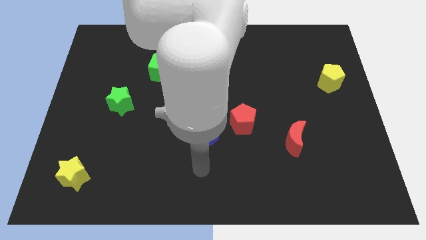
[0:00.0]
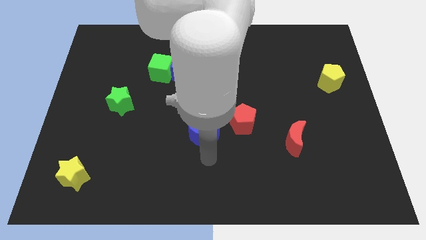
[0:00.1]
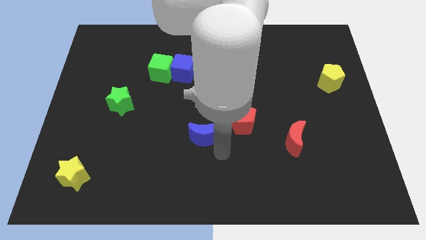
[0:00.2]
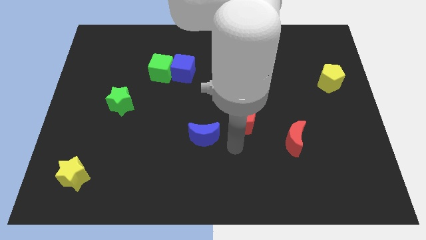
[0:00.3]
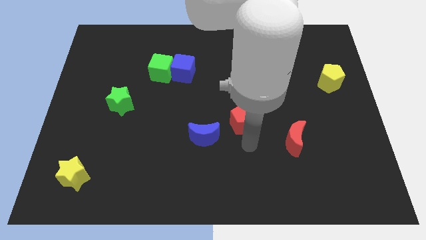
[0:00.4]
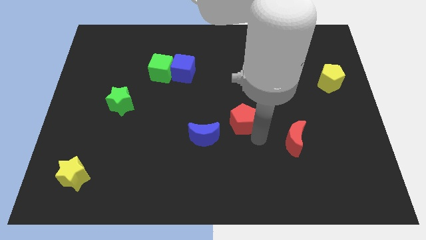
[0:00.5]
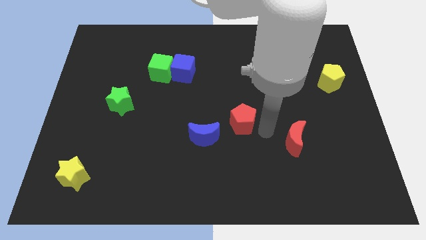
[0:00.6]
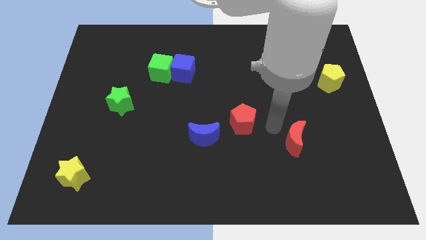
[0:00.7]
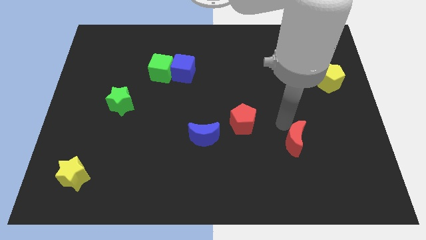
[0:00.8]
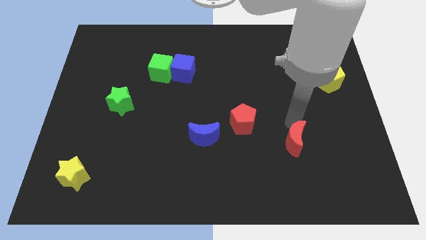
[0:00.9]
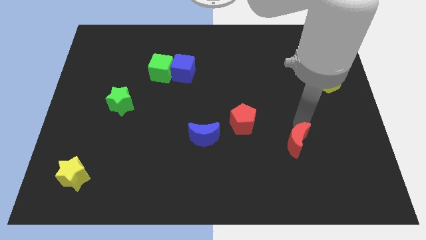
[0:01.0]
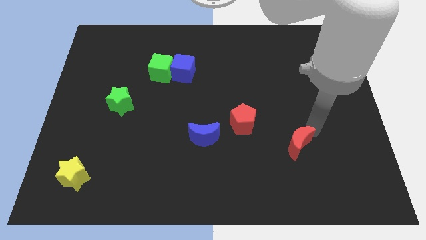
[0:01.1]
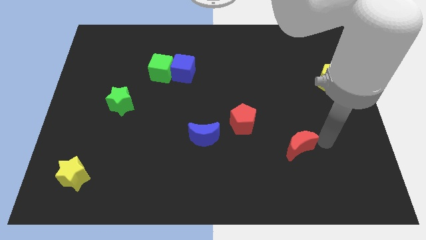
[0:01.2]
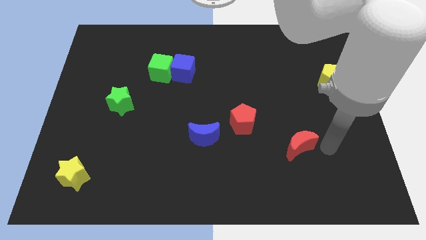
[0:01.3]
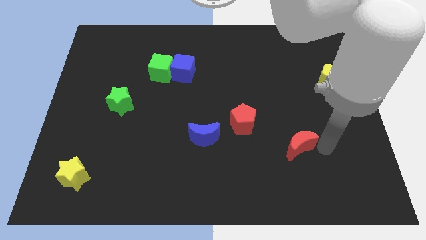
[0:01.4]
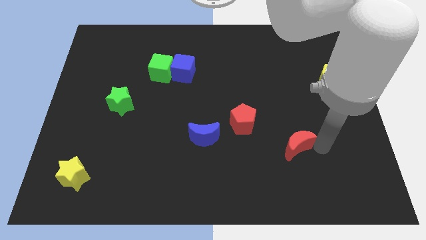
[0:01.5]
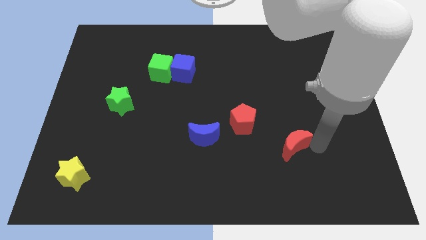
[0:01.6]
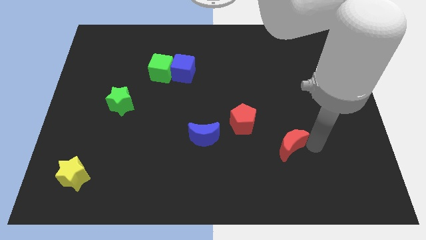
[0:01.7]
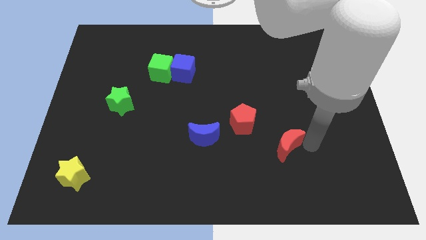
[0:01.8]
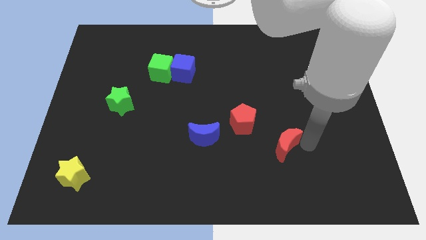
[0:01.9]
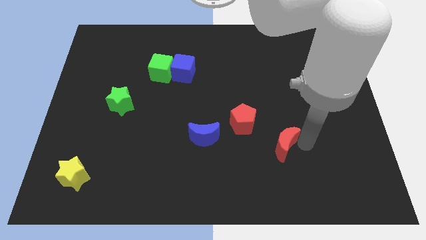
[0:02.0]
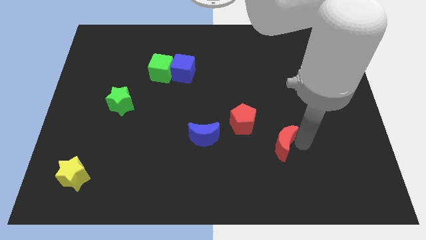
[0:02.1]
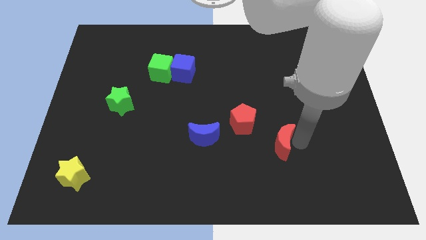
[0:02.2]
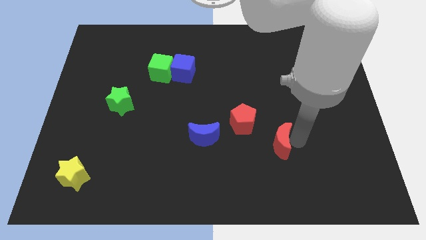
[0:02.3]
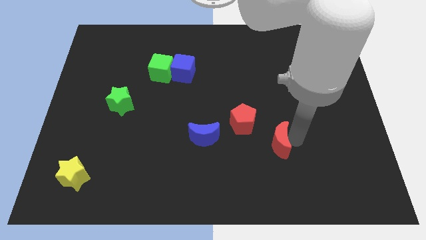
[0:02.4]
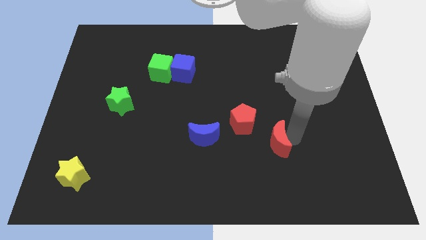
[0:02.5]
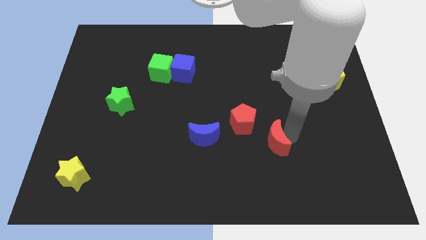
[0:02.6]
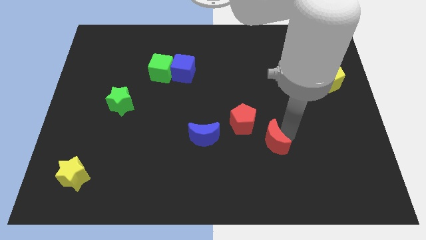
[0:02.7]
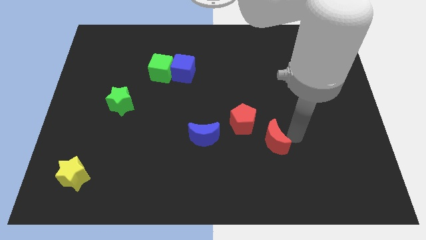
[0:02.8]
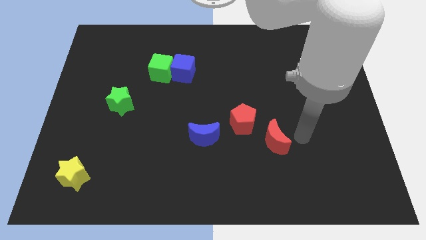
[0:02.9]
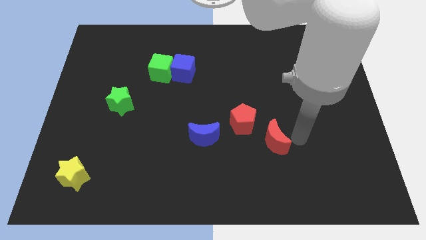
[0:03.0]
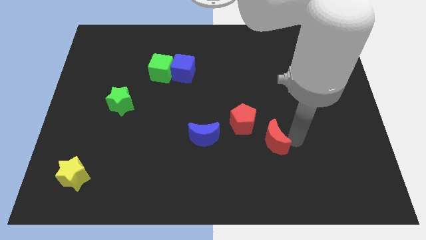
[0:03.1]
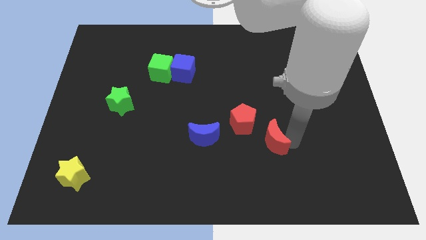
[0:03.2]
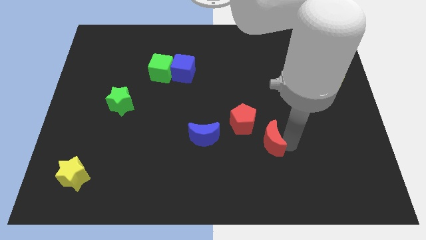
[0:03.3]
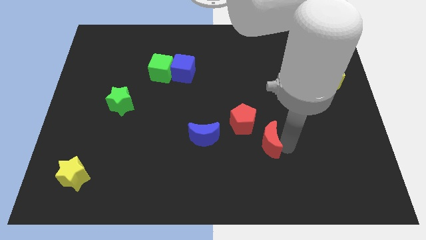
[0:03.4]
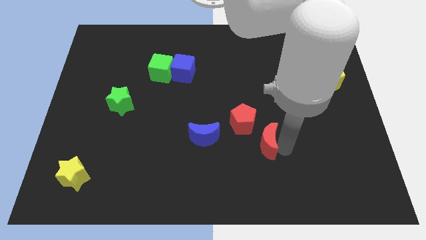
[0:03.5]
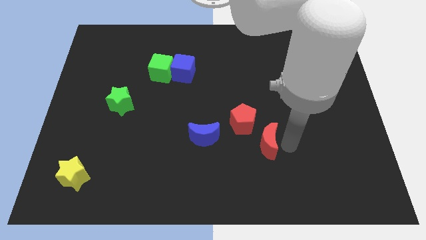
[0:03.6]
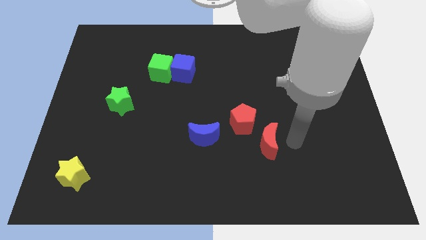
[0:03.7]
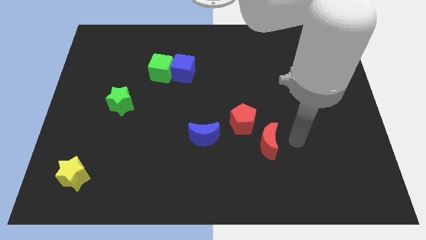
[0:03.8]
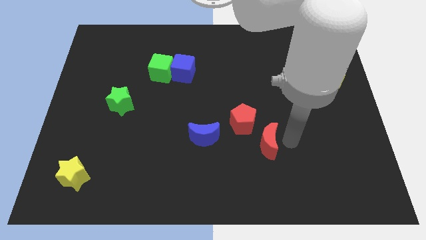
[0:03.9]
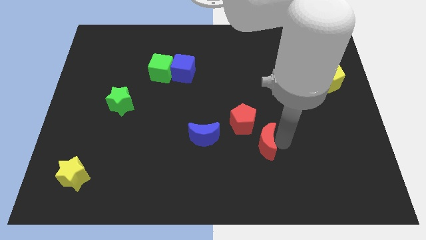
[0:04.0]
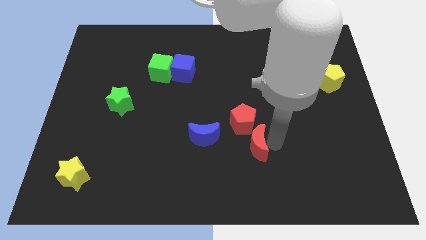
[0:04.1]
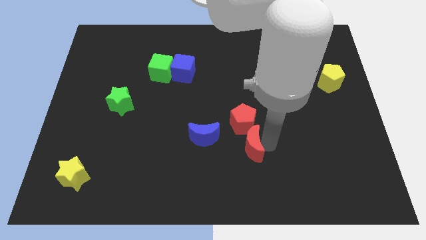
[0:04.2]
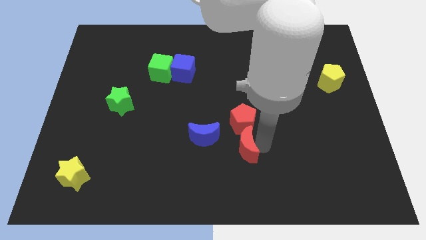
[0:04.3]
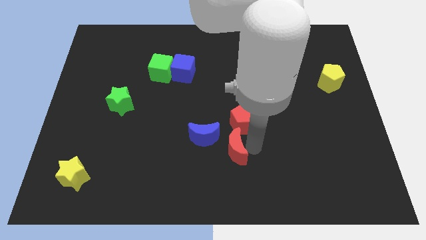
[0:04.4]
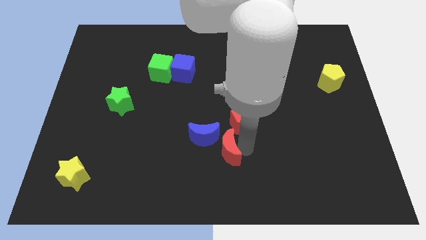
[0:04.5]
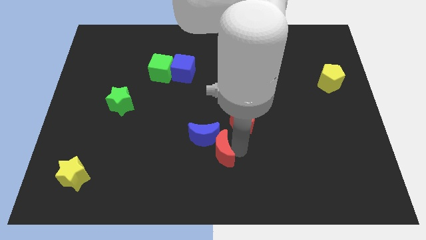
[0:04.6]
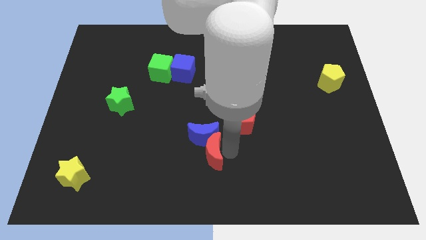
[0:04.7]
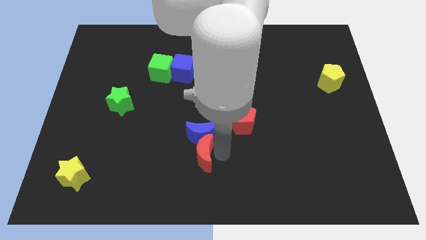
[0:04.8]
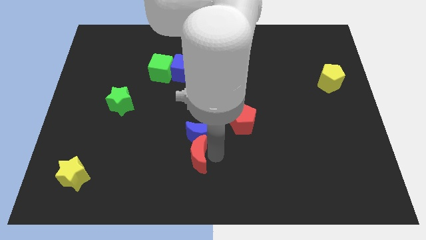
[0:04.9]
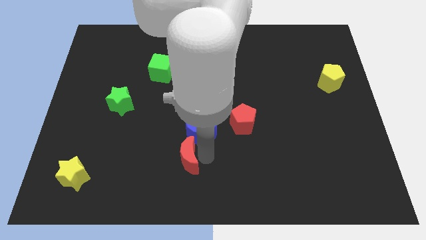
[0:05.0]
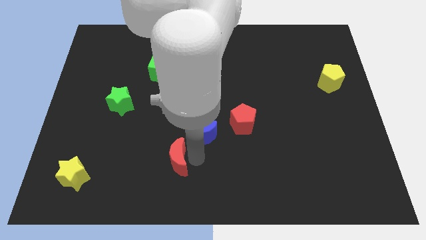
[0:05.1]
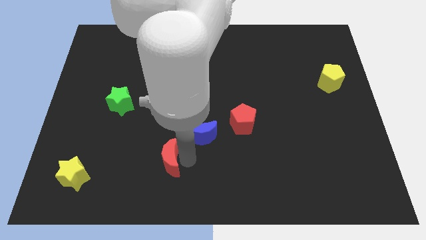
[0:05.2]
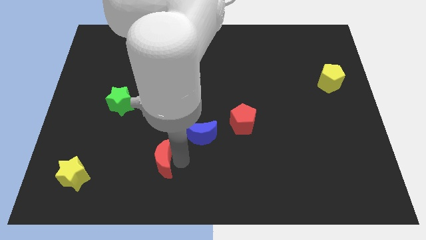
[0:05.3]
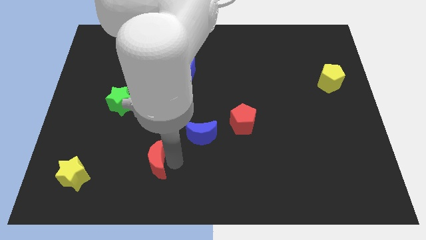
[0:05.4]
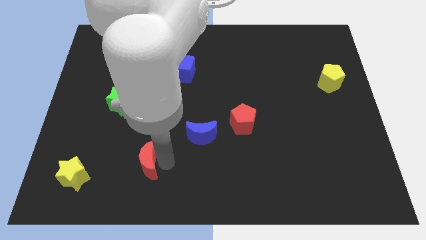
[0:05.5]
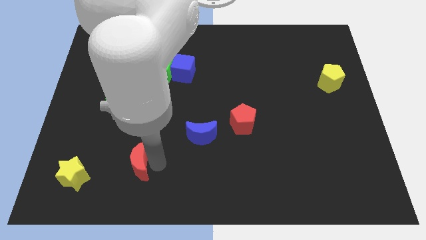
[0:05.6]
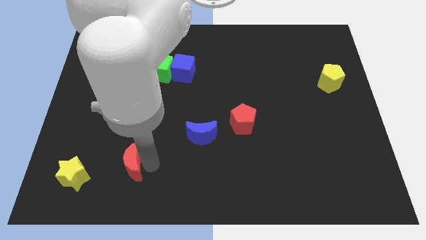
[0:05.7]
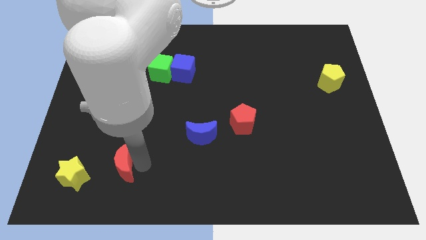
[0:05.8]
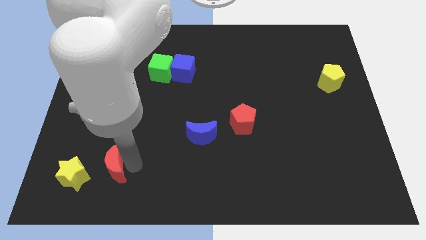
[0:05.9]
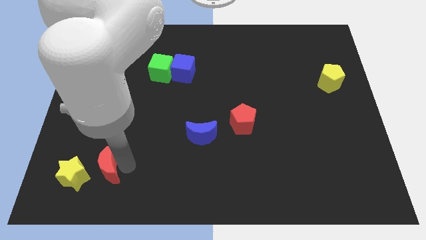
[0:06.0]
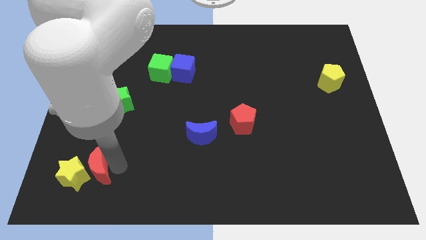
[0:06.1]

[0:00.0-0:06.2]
push the red moon next to the yellow star

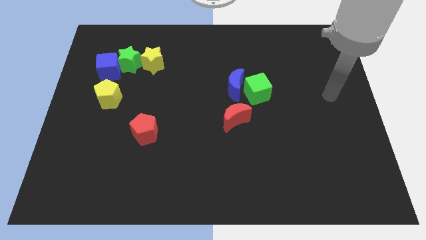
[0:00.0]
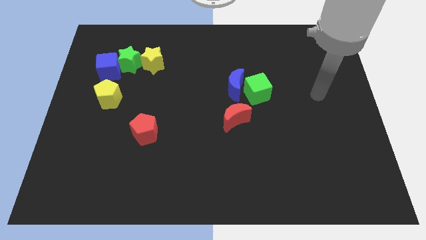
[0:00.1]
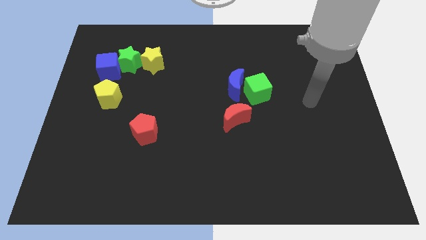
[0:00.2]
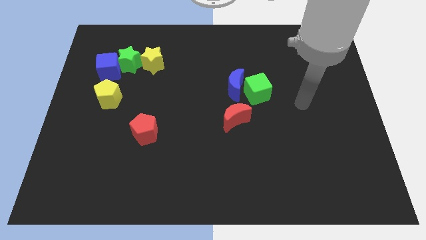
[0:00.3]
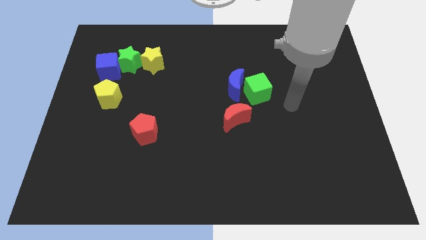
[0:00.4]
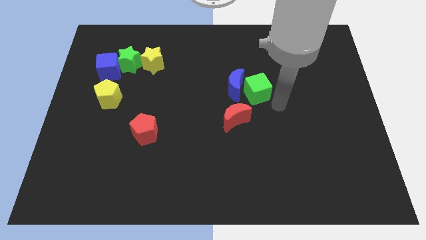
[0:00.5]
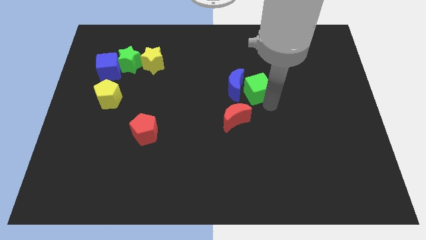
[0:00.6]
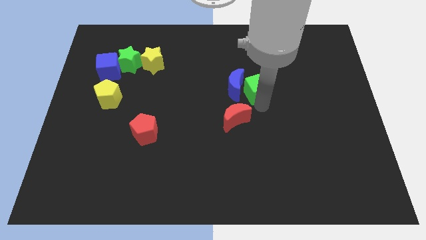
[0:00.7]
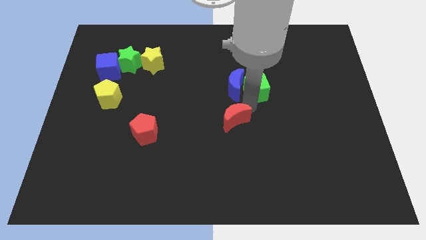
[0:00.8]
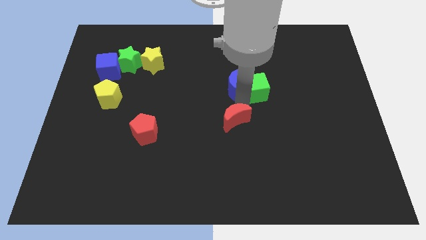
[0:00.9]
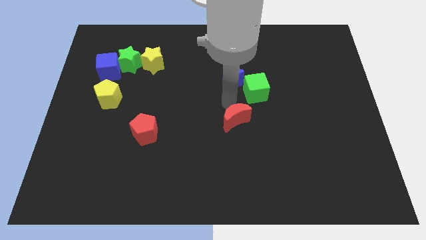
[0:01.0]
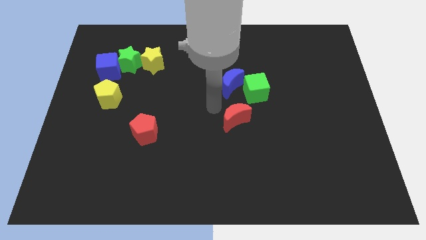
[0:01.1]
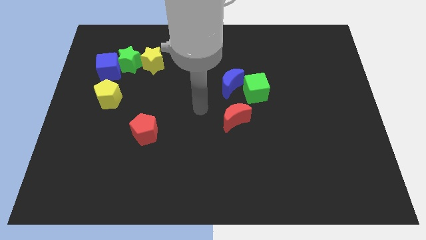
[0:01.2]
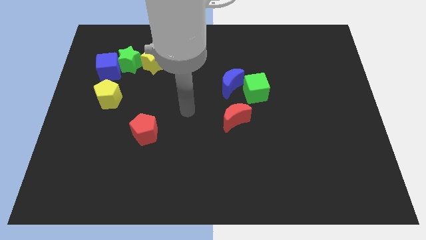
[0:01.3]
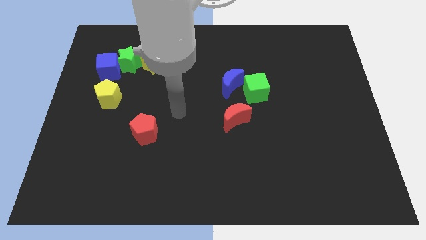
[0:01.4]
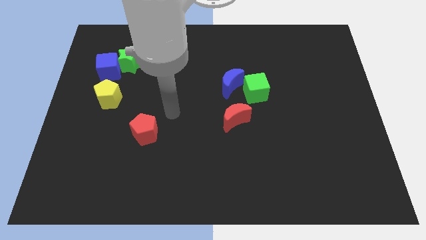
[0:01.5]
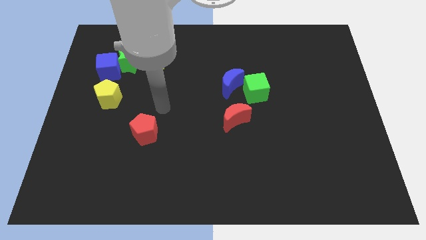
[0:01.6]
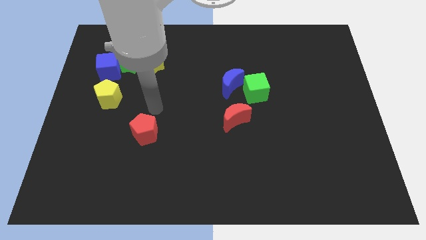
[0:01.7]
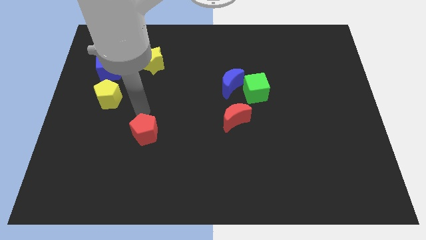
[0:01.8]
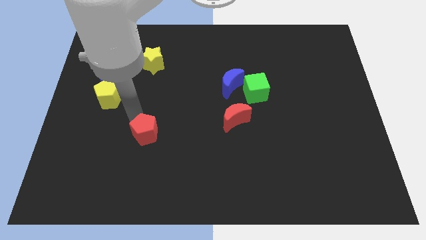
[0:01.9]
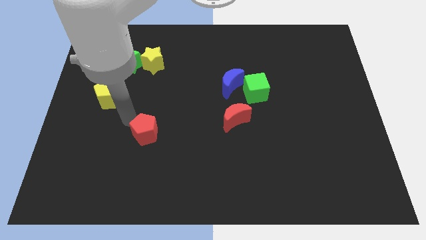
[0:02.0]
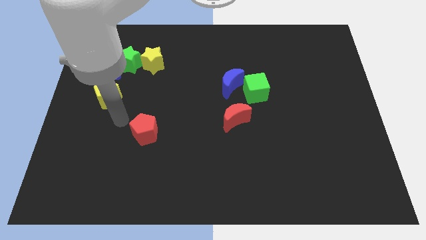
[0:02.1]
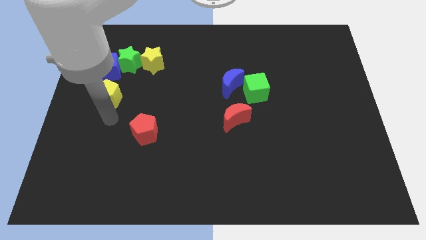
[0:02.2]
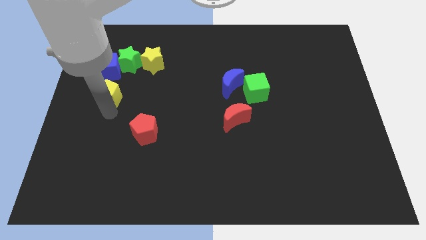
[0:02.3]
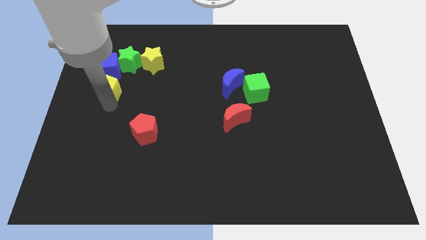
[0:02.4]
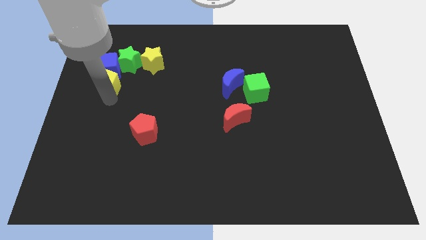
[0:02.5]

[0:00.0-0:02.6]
push the yellow pentagon next to the blue cube
